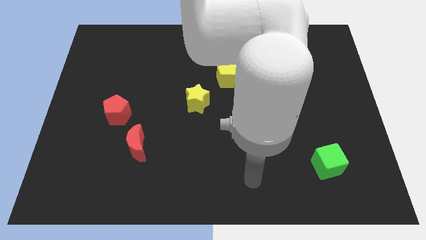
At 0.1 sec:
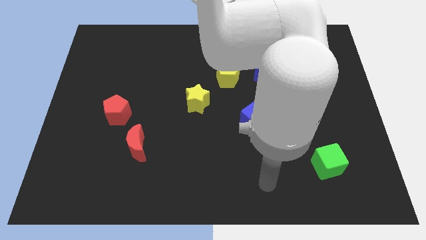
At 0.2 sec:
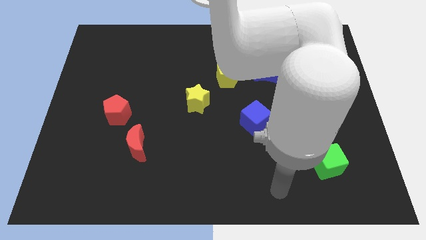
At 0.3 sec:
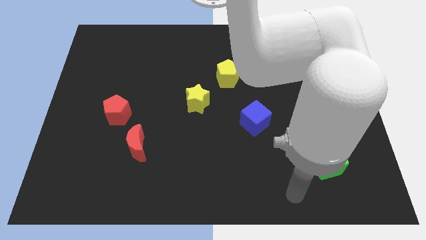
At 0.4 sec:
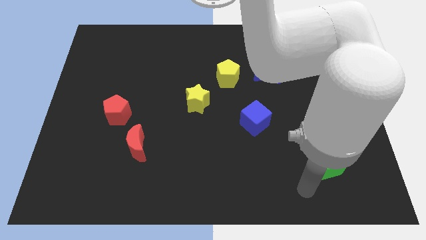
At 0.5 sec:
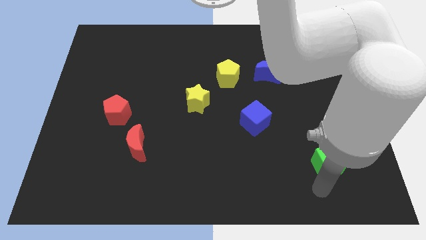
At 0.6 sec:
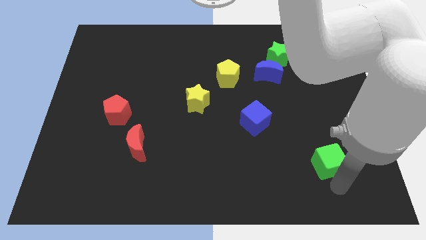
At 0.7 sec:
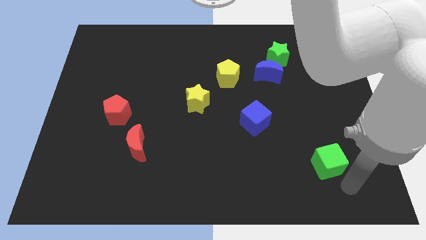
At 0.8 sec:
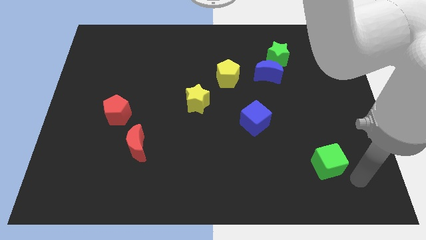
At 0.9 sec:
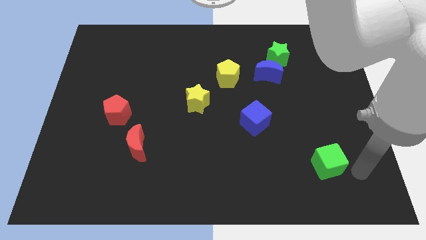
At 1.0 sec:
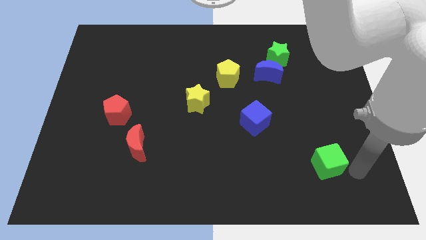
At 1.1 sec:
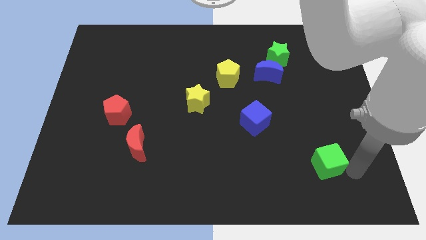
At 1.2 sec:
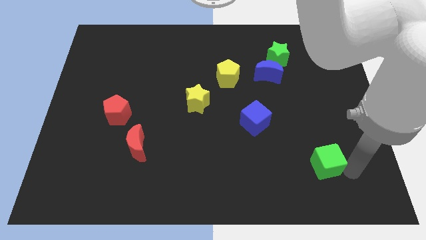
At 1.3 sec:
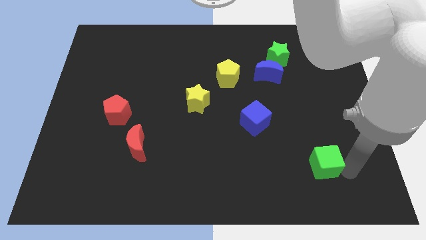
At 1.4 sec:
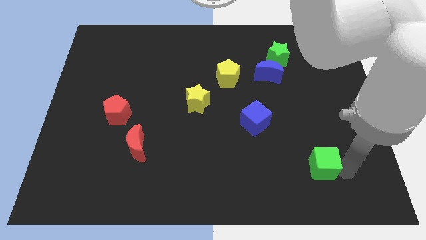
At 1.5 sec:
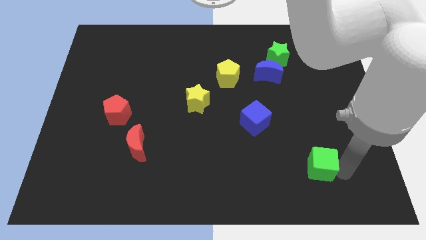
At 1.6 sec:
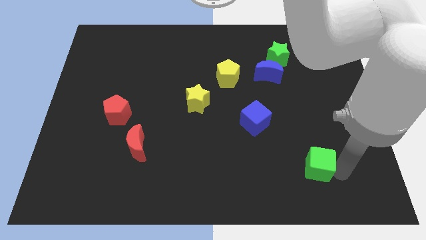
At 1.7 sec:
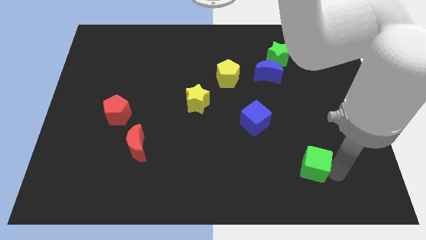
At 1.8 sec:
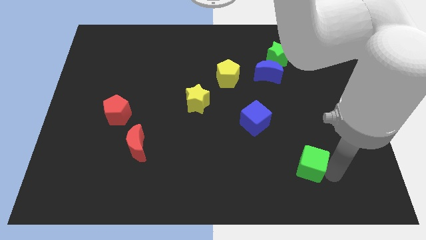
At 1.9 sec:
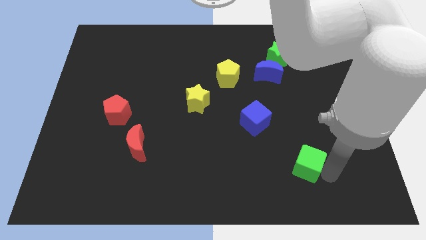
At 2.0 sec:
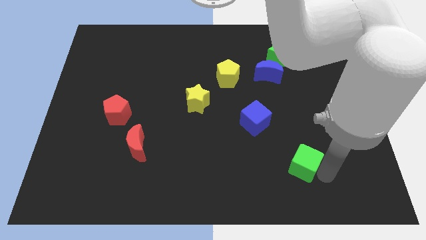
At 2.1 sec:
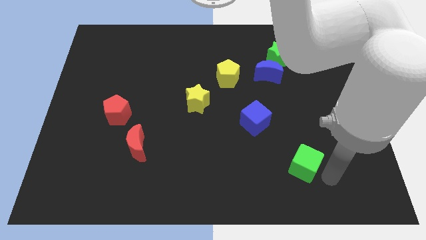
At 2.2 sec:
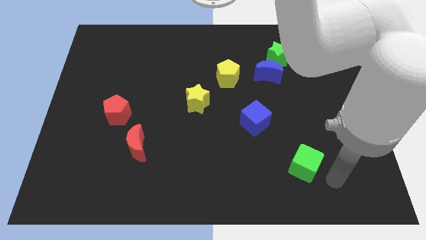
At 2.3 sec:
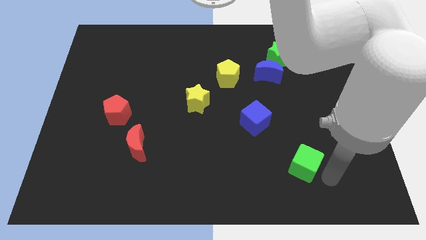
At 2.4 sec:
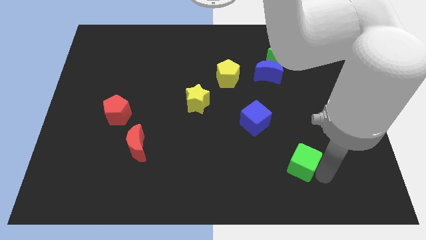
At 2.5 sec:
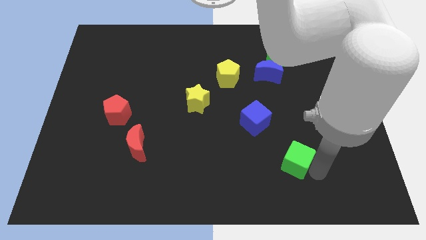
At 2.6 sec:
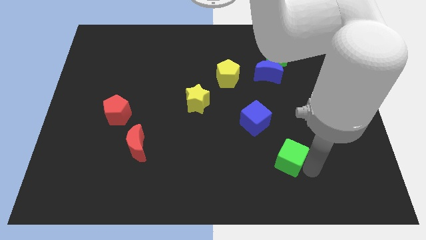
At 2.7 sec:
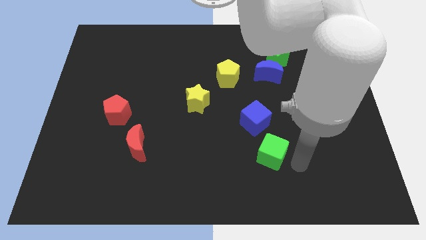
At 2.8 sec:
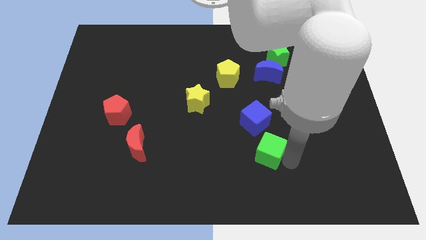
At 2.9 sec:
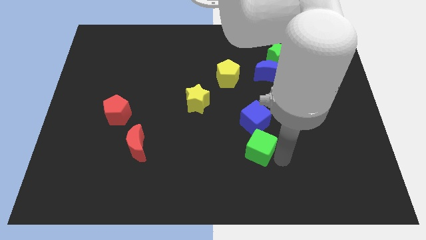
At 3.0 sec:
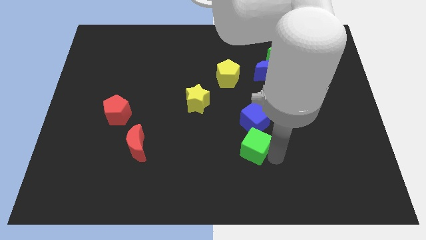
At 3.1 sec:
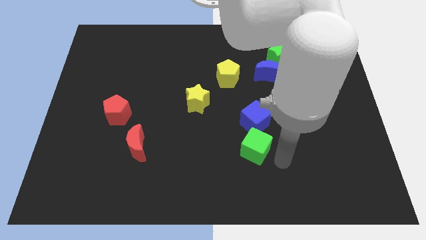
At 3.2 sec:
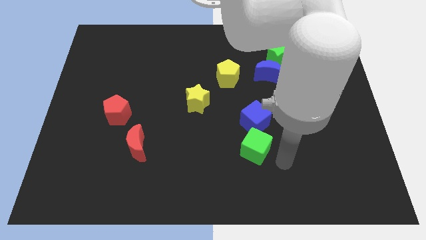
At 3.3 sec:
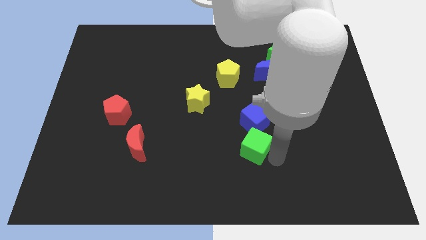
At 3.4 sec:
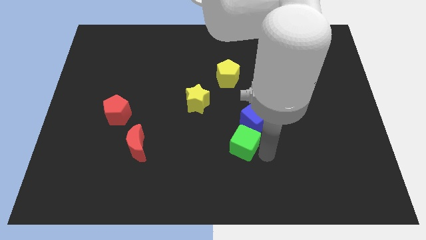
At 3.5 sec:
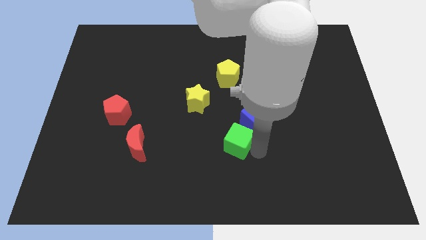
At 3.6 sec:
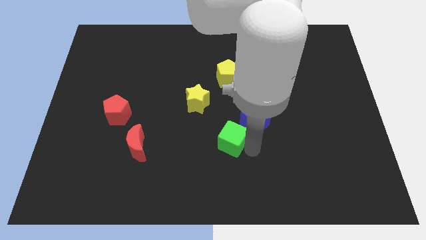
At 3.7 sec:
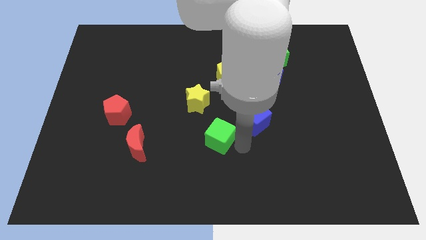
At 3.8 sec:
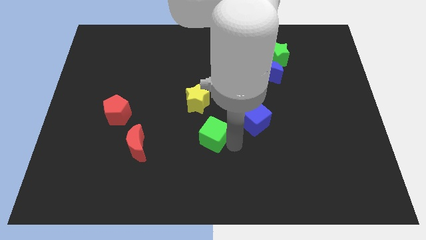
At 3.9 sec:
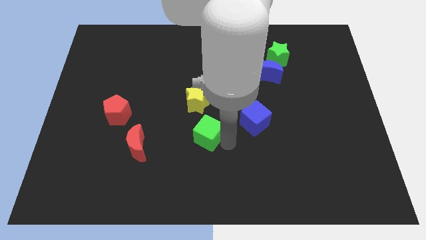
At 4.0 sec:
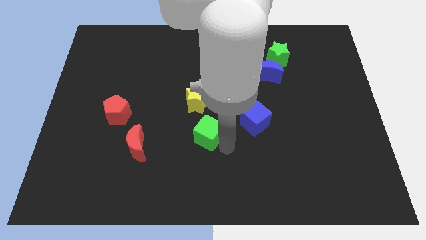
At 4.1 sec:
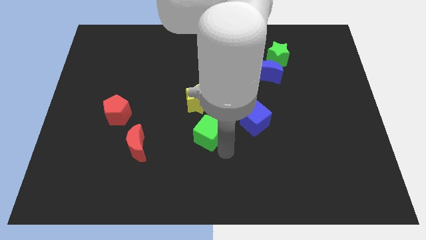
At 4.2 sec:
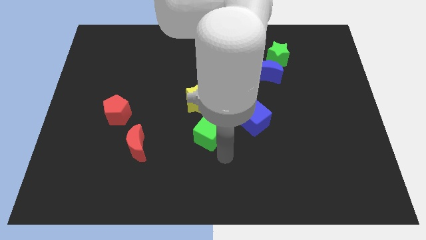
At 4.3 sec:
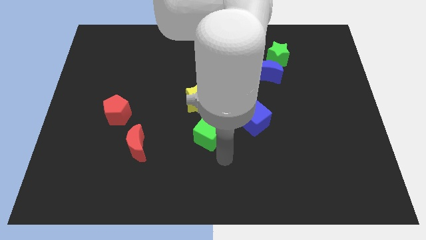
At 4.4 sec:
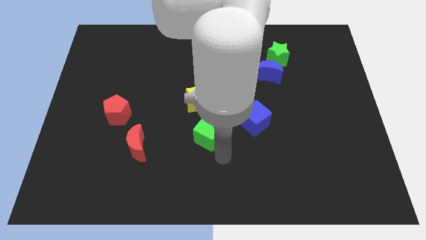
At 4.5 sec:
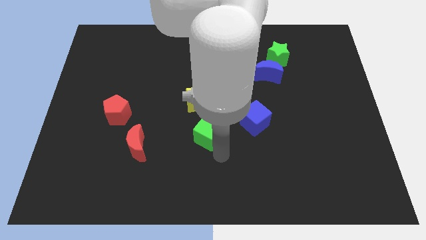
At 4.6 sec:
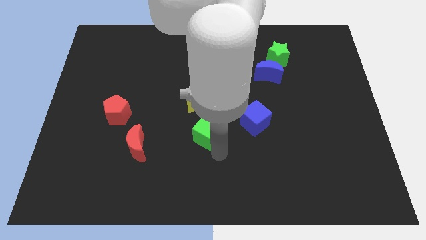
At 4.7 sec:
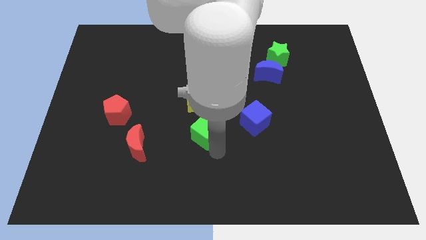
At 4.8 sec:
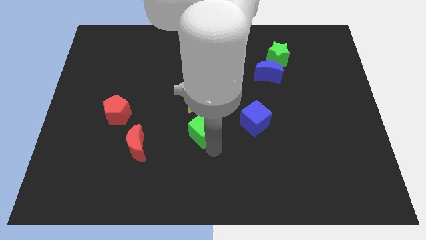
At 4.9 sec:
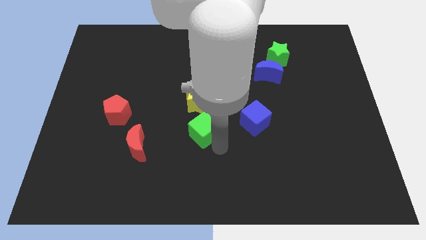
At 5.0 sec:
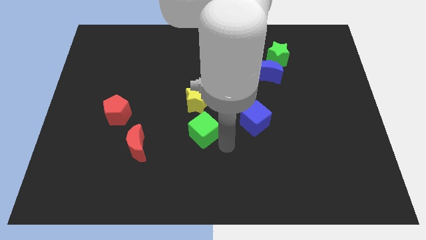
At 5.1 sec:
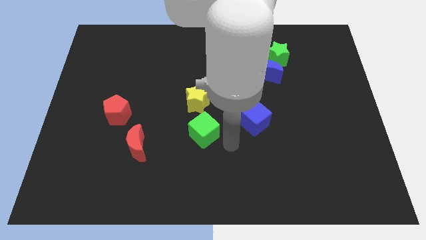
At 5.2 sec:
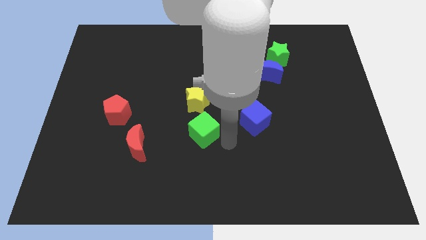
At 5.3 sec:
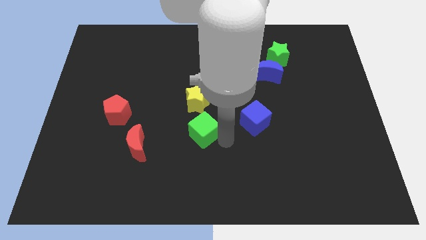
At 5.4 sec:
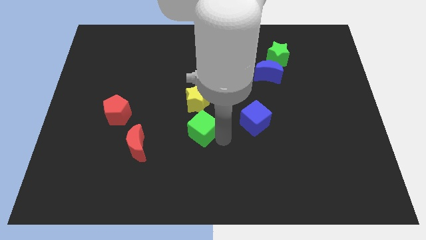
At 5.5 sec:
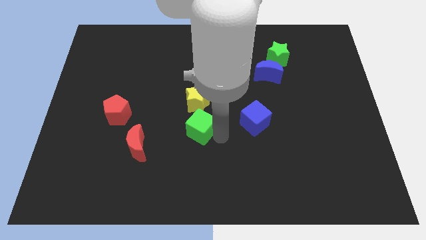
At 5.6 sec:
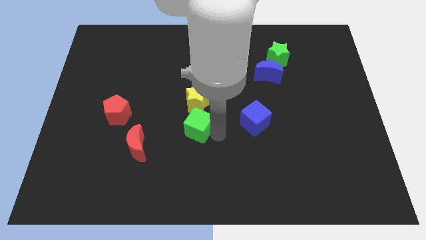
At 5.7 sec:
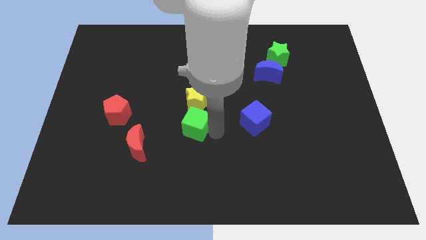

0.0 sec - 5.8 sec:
slide the green cube to the bottom left side of the yellow star

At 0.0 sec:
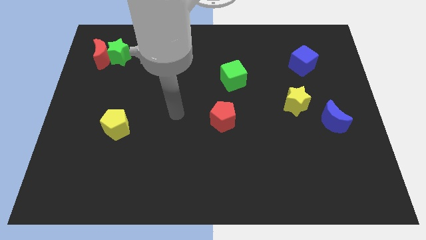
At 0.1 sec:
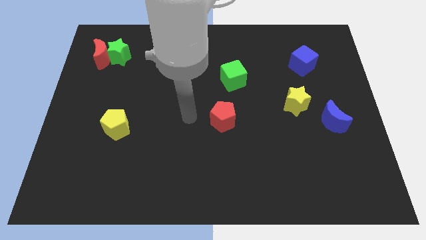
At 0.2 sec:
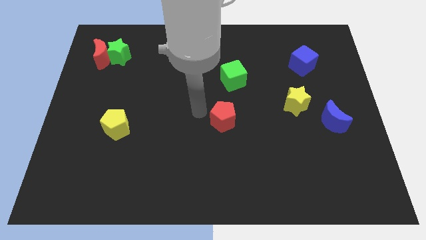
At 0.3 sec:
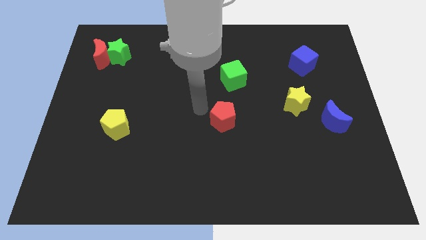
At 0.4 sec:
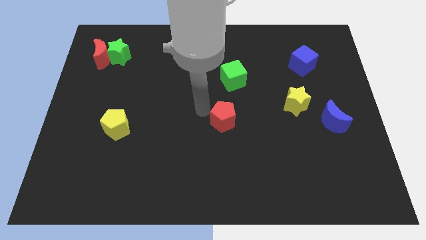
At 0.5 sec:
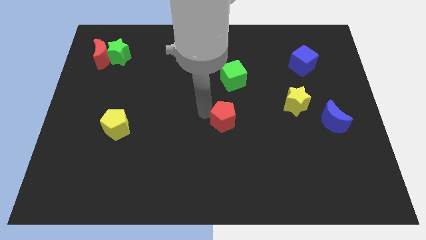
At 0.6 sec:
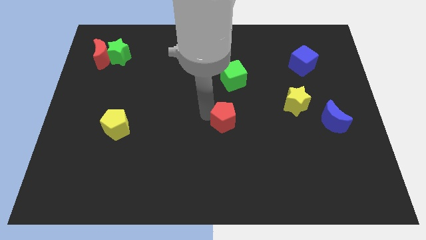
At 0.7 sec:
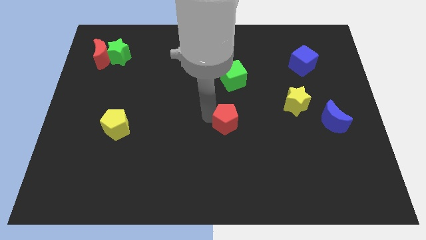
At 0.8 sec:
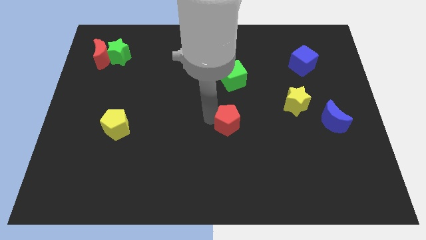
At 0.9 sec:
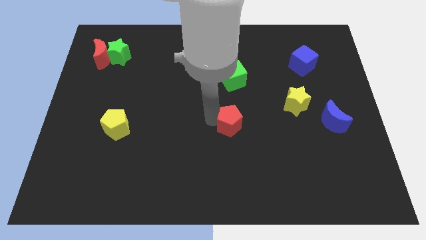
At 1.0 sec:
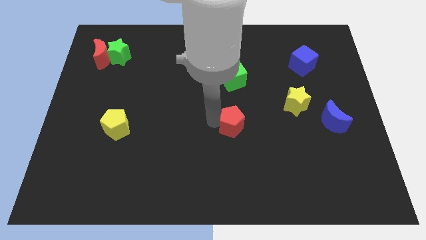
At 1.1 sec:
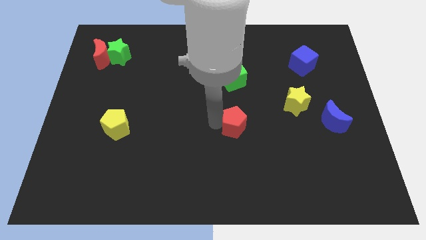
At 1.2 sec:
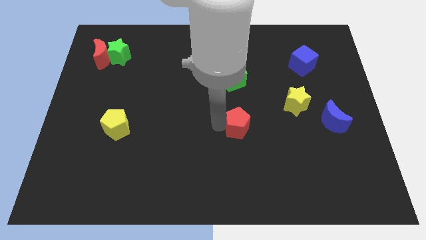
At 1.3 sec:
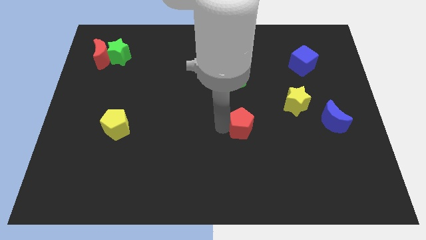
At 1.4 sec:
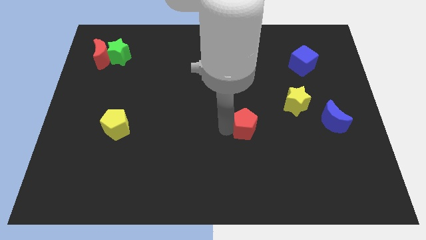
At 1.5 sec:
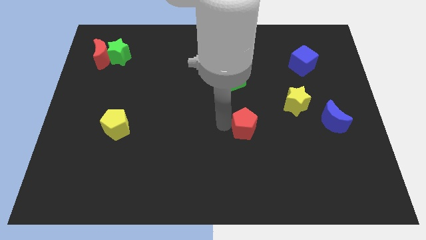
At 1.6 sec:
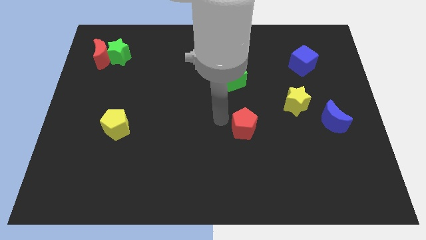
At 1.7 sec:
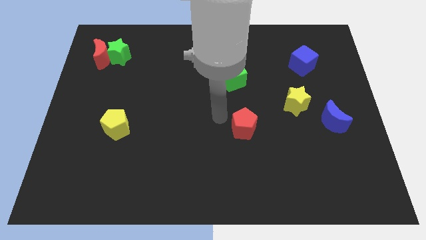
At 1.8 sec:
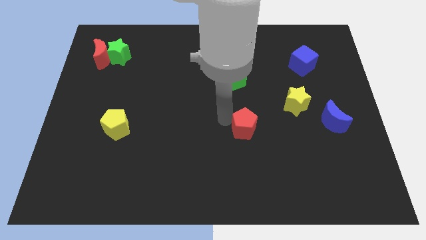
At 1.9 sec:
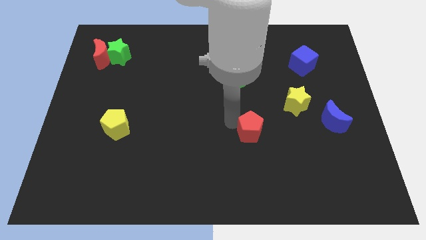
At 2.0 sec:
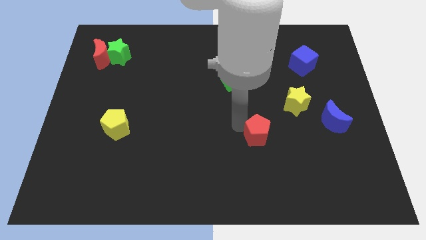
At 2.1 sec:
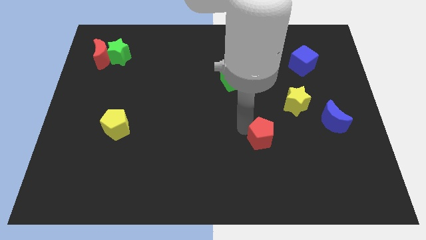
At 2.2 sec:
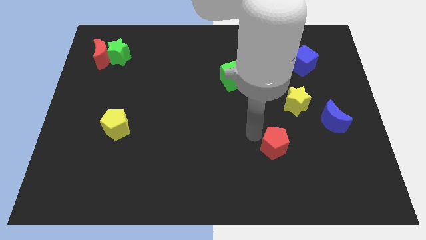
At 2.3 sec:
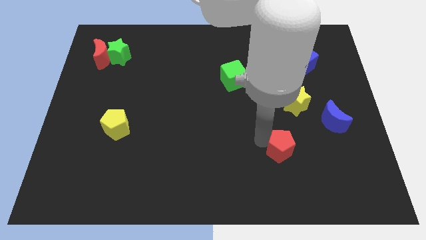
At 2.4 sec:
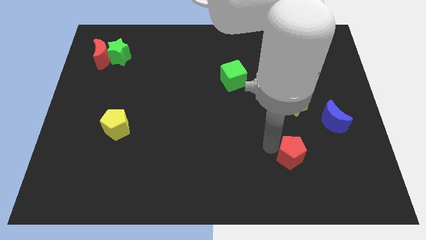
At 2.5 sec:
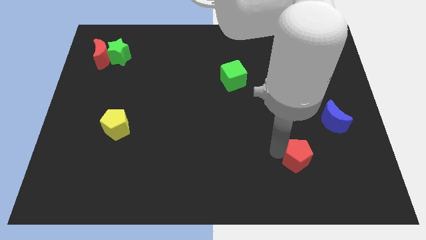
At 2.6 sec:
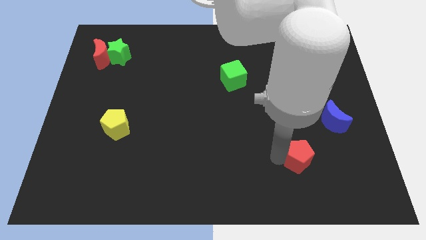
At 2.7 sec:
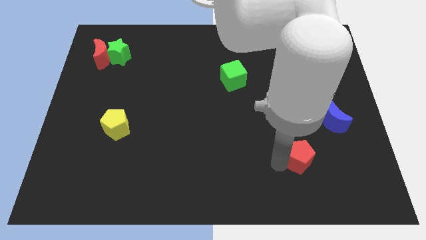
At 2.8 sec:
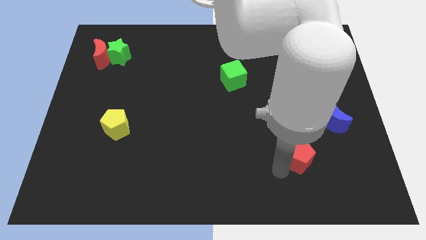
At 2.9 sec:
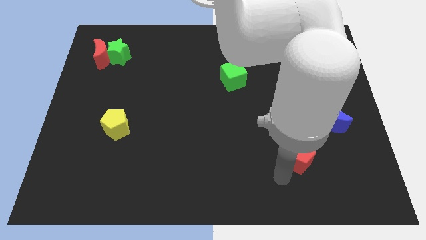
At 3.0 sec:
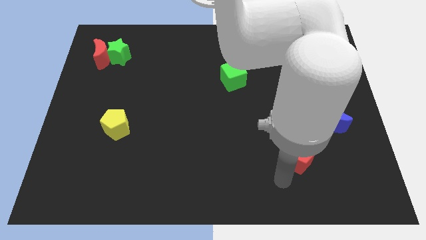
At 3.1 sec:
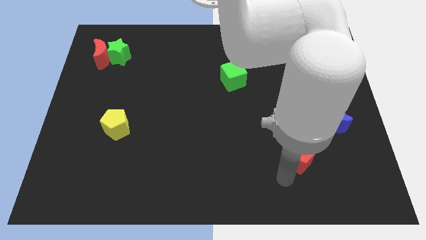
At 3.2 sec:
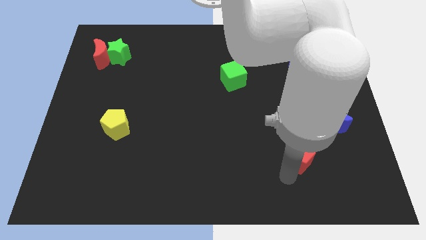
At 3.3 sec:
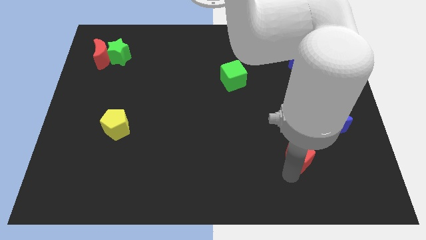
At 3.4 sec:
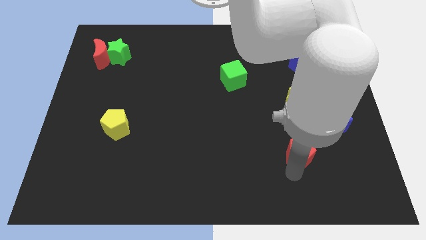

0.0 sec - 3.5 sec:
push the red pentagon to the bottom left side of the blue moon
